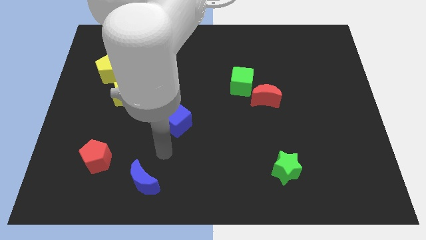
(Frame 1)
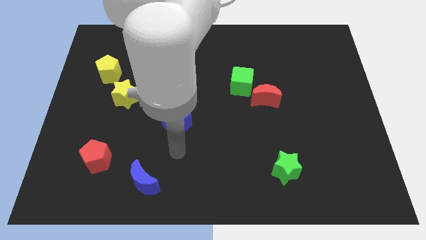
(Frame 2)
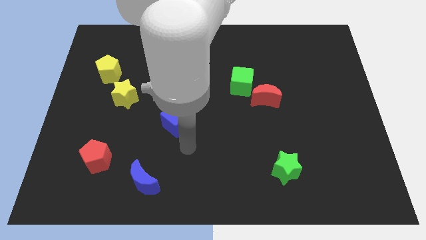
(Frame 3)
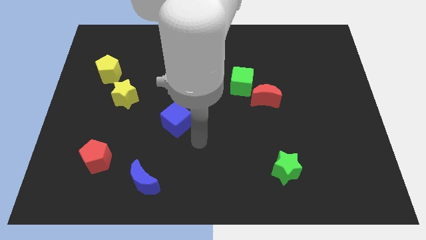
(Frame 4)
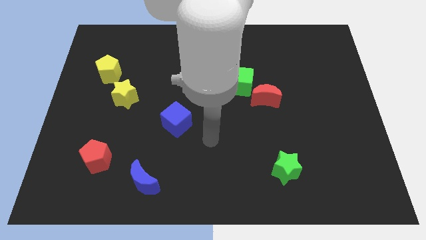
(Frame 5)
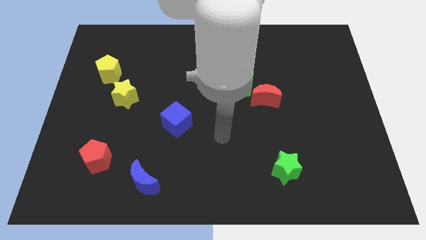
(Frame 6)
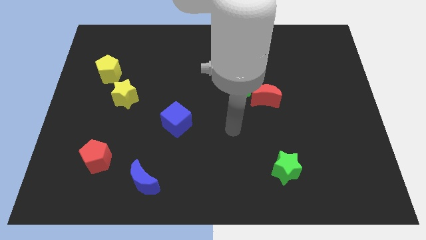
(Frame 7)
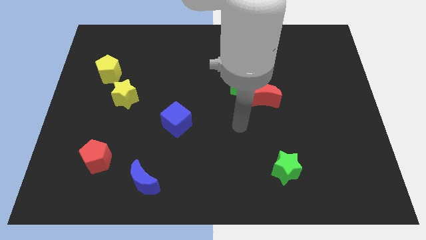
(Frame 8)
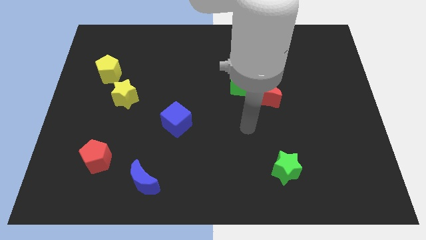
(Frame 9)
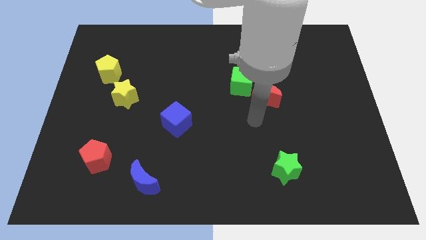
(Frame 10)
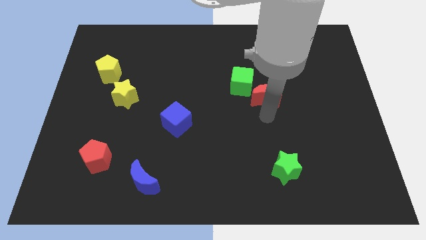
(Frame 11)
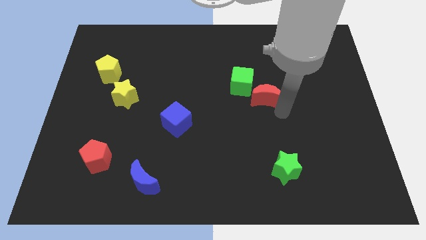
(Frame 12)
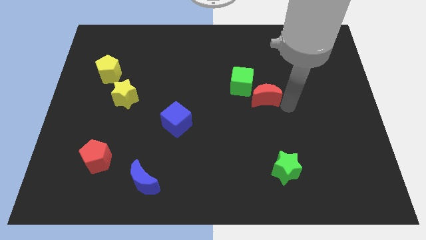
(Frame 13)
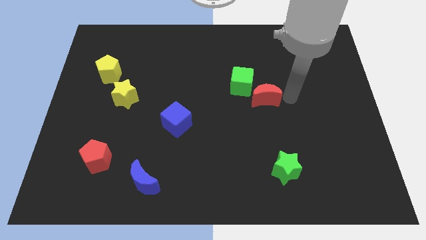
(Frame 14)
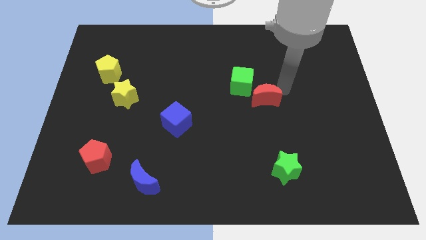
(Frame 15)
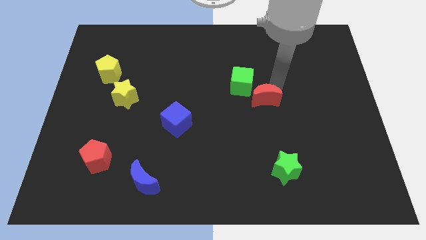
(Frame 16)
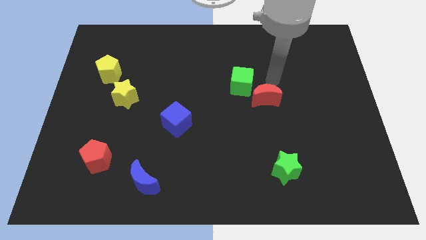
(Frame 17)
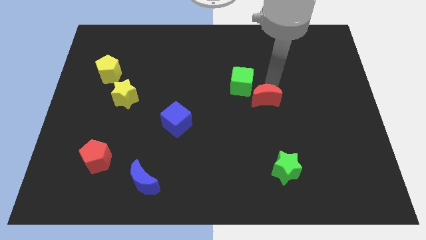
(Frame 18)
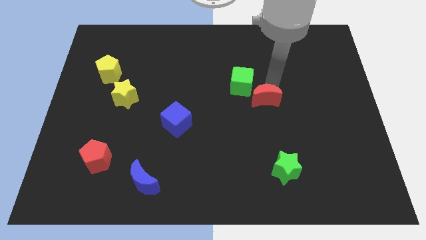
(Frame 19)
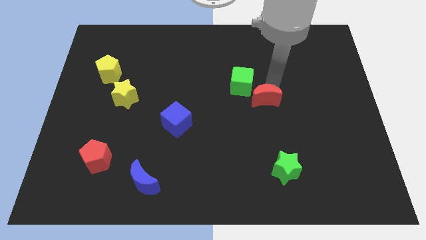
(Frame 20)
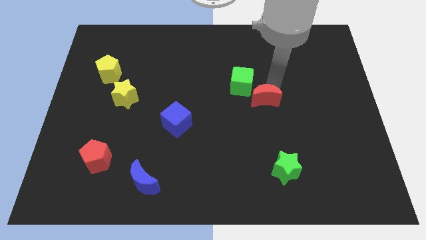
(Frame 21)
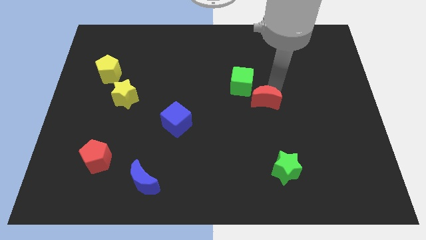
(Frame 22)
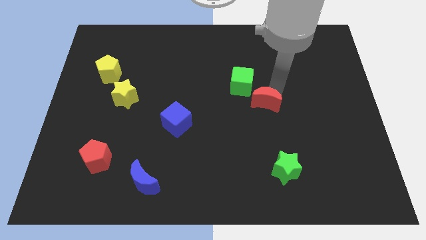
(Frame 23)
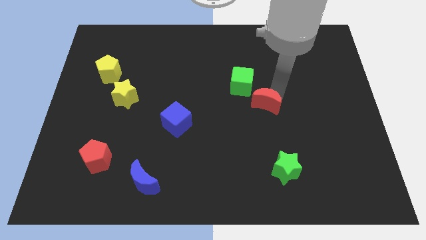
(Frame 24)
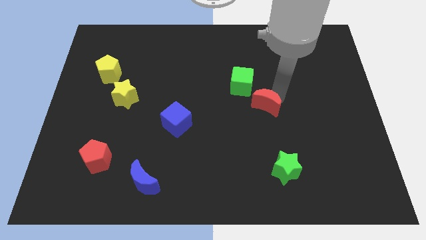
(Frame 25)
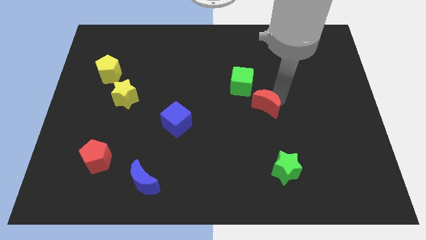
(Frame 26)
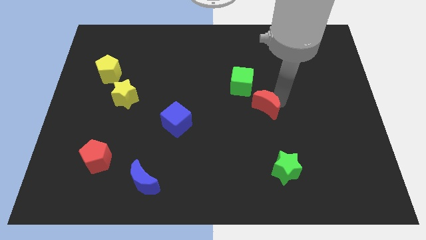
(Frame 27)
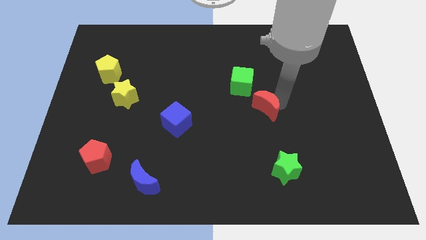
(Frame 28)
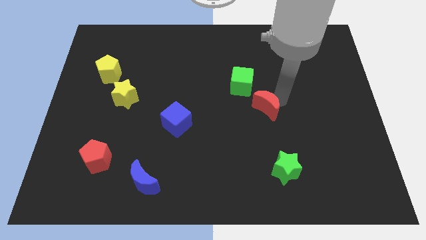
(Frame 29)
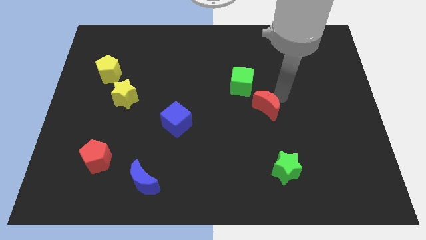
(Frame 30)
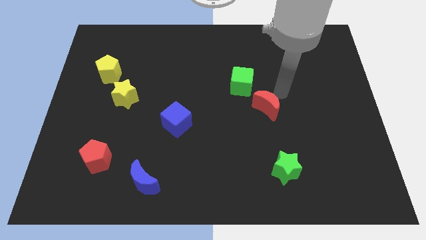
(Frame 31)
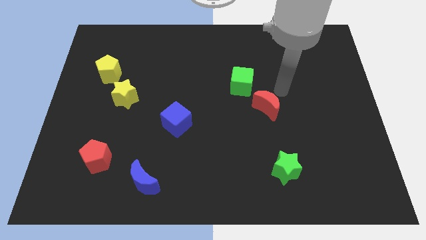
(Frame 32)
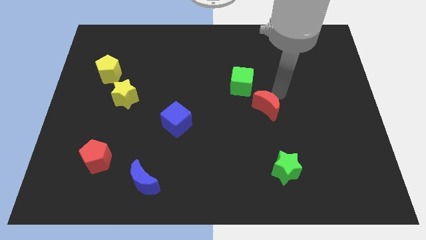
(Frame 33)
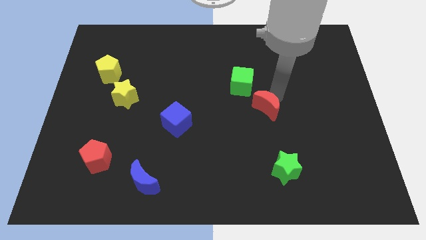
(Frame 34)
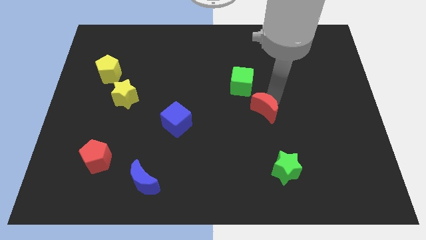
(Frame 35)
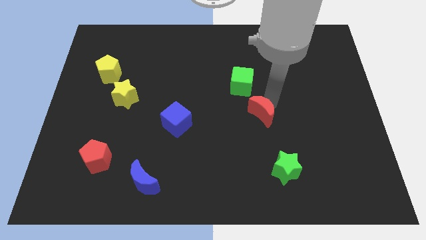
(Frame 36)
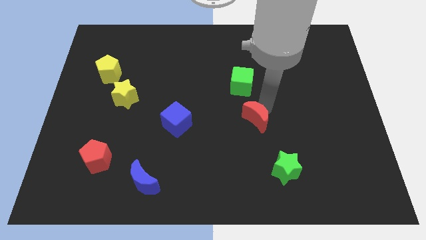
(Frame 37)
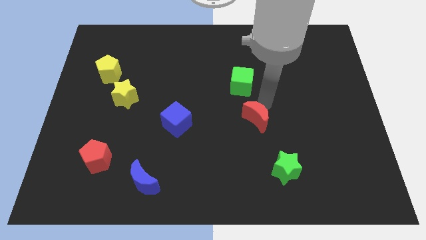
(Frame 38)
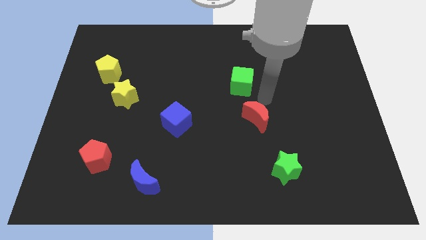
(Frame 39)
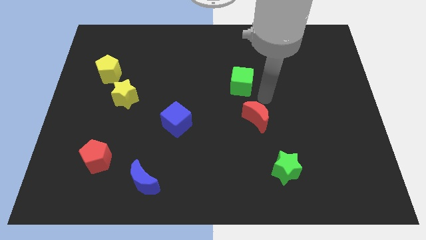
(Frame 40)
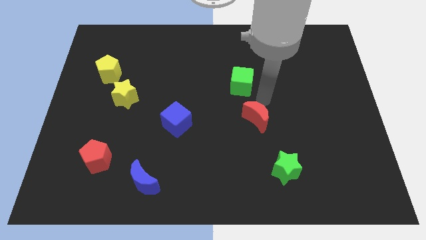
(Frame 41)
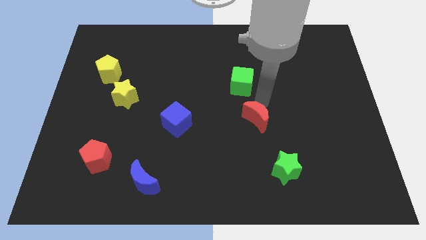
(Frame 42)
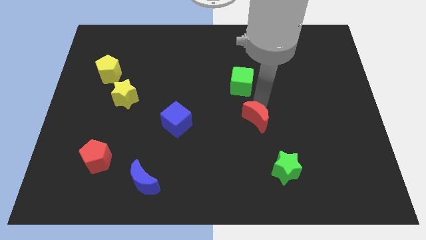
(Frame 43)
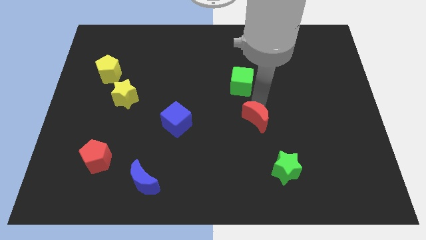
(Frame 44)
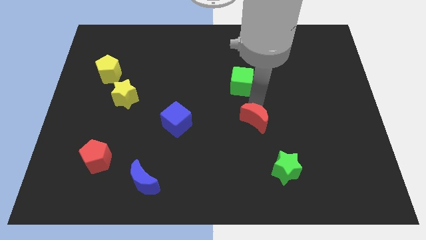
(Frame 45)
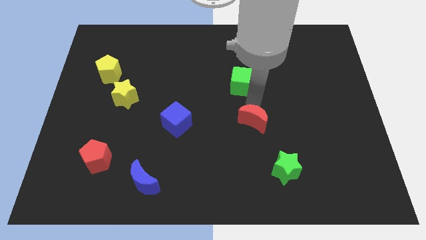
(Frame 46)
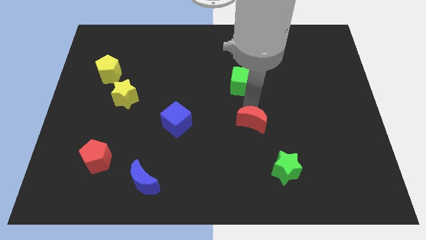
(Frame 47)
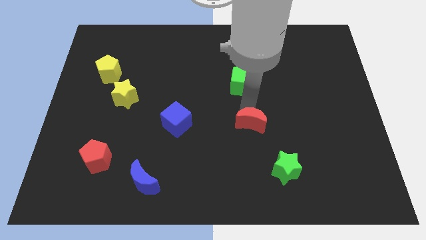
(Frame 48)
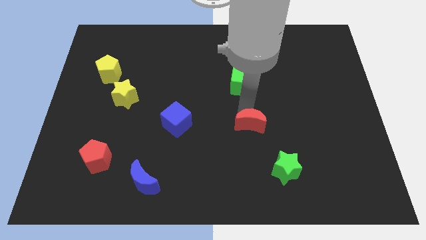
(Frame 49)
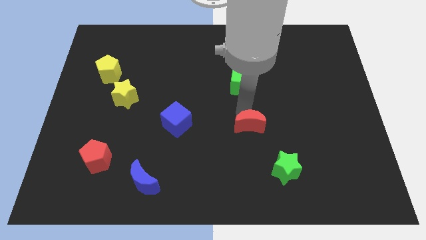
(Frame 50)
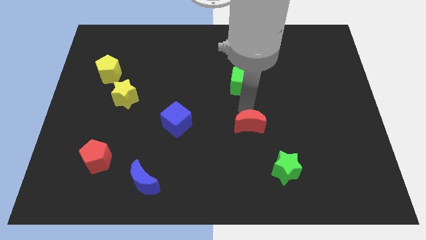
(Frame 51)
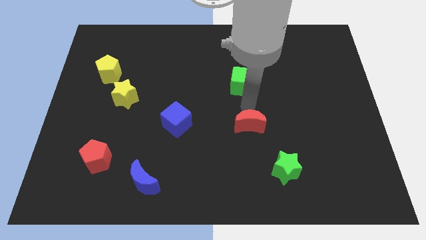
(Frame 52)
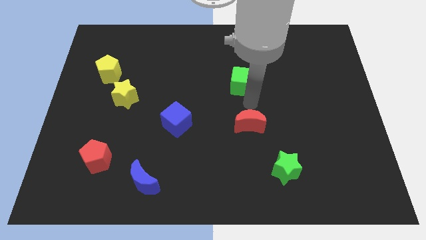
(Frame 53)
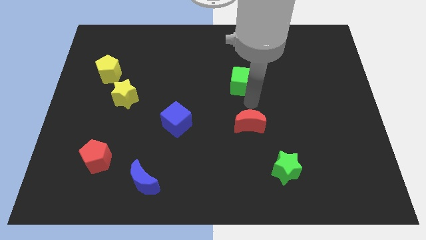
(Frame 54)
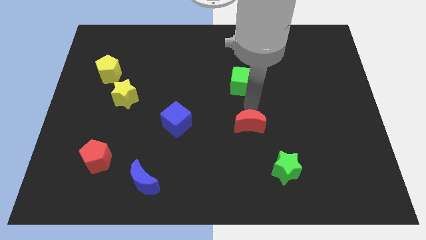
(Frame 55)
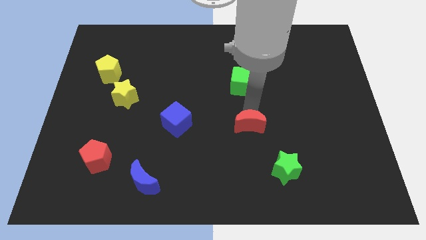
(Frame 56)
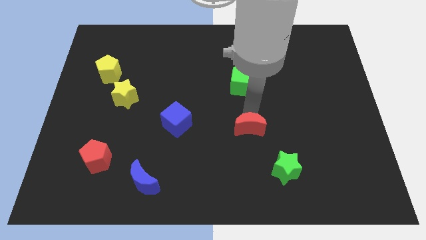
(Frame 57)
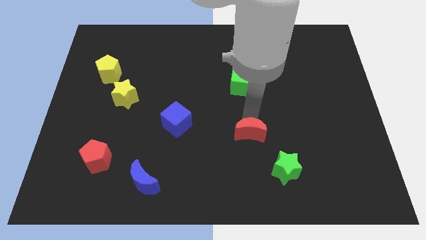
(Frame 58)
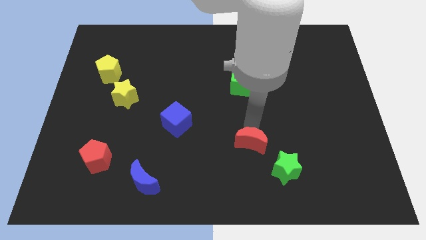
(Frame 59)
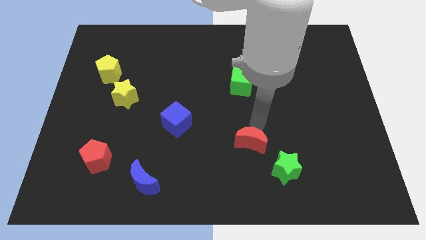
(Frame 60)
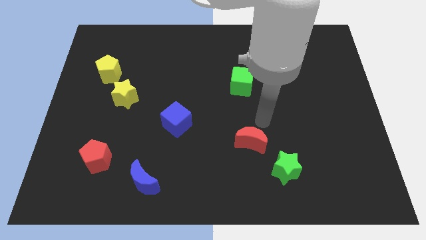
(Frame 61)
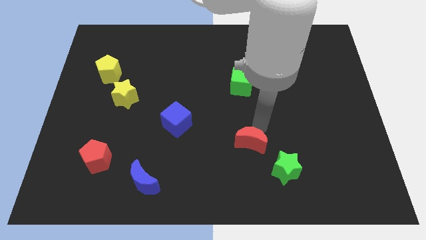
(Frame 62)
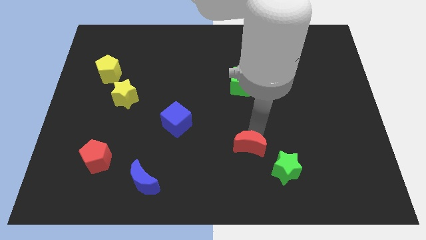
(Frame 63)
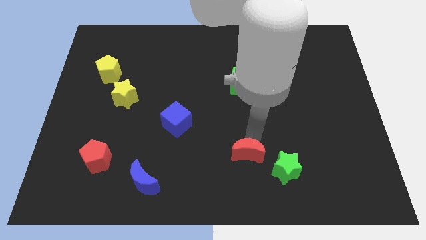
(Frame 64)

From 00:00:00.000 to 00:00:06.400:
put the red moon to the left of the green star
